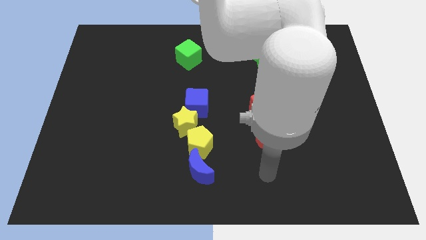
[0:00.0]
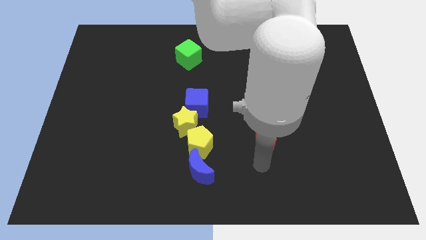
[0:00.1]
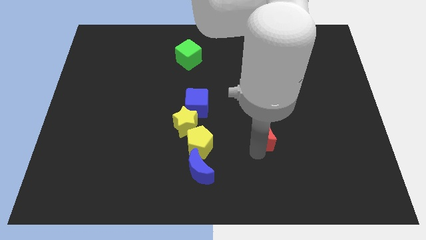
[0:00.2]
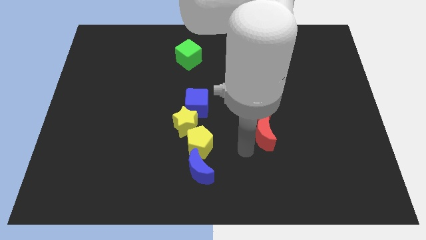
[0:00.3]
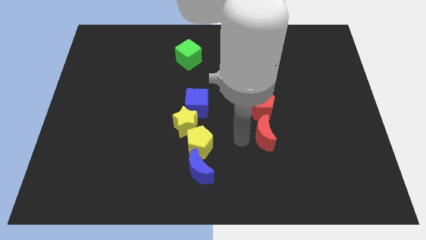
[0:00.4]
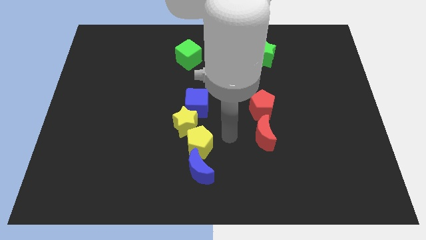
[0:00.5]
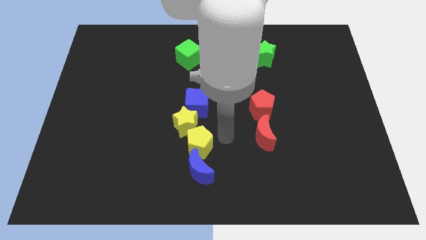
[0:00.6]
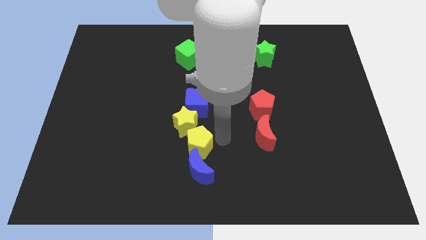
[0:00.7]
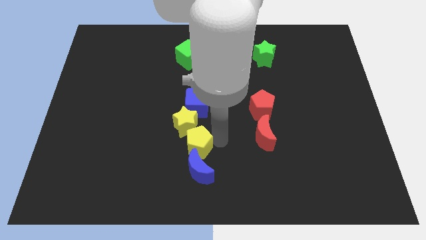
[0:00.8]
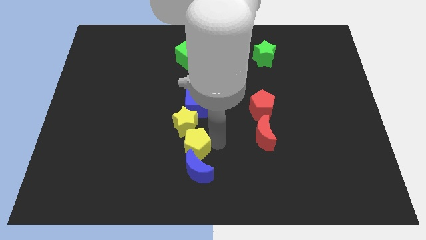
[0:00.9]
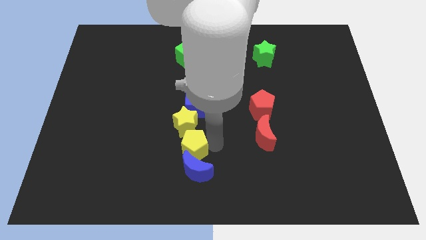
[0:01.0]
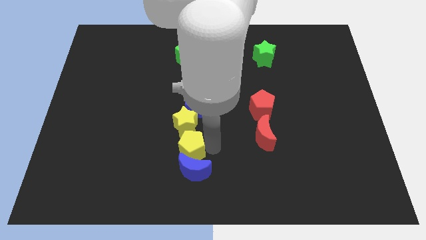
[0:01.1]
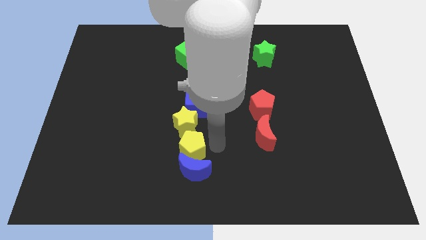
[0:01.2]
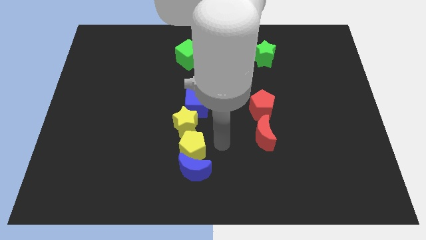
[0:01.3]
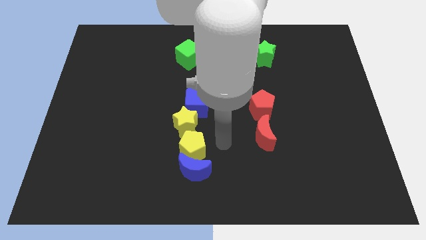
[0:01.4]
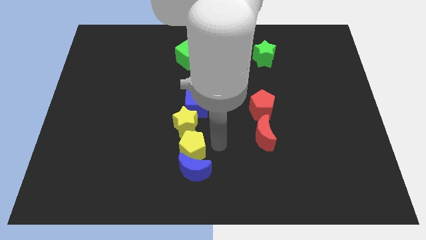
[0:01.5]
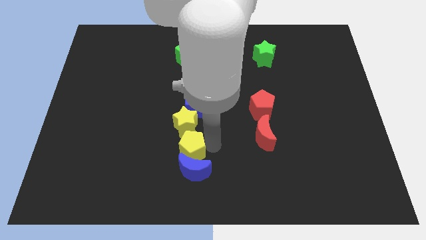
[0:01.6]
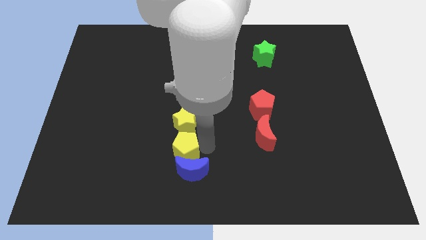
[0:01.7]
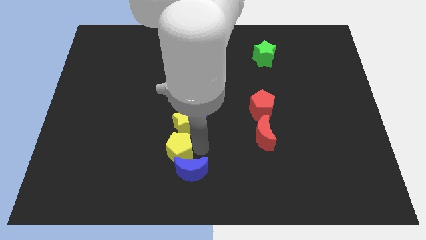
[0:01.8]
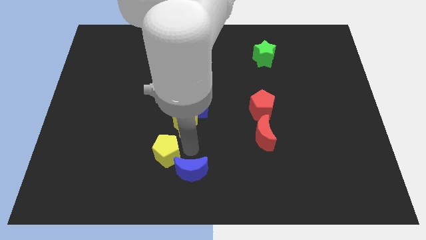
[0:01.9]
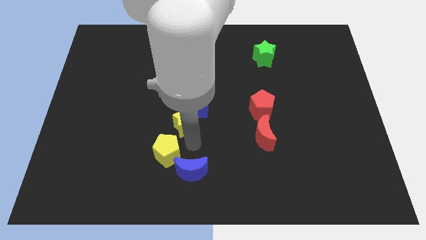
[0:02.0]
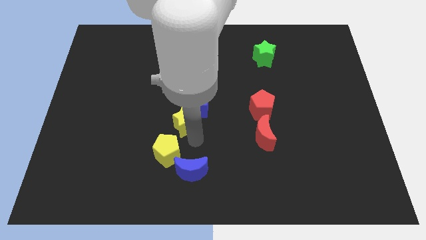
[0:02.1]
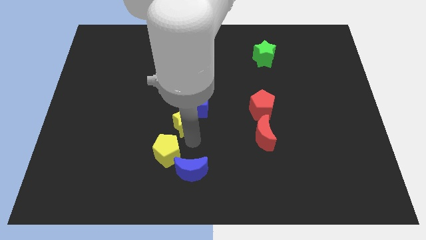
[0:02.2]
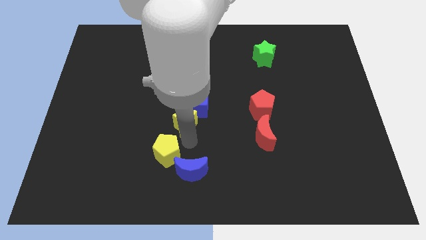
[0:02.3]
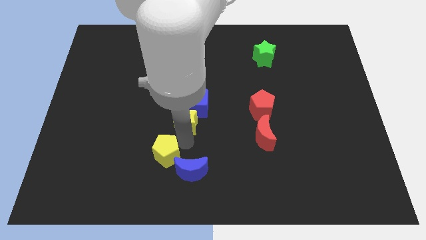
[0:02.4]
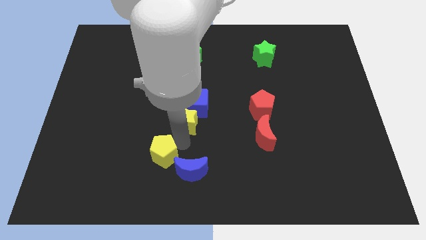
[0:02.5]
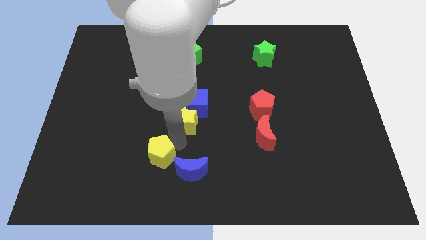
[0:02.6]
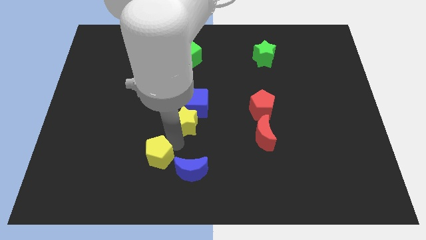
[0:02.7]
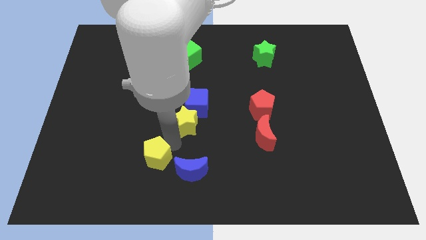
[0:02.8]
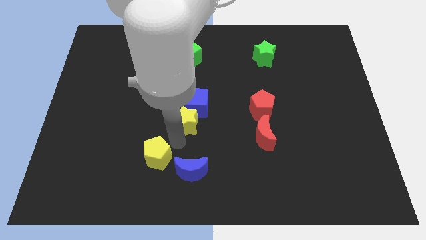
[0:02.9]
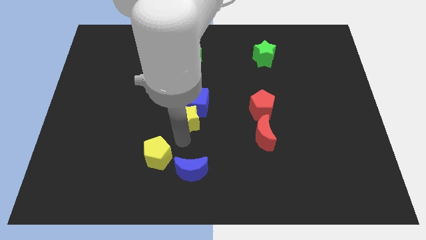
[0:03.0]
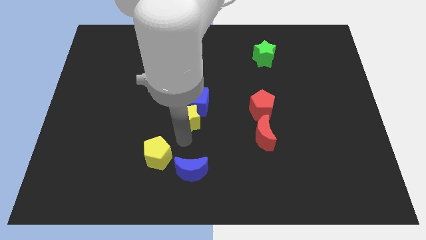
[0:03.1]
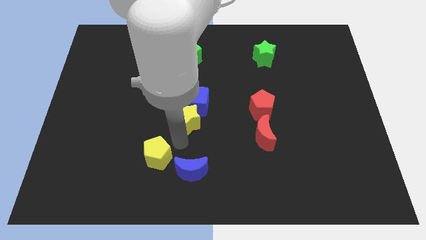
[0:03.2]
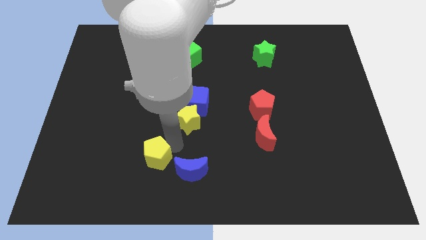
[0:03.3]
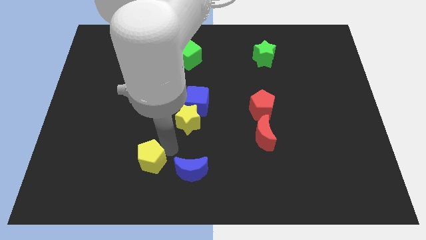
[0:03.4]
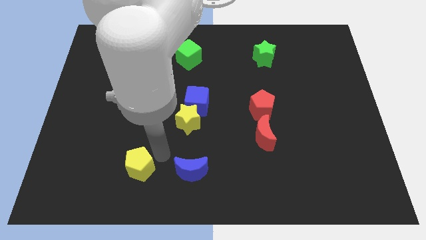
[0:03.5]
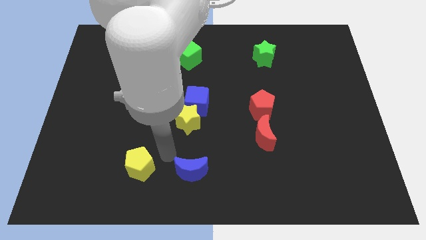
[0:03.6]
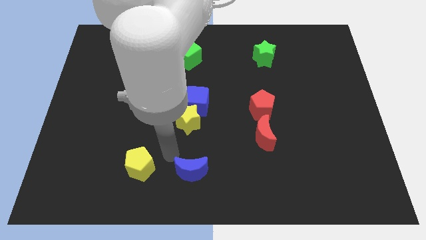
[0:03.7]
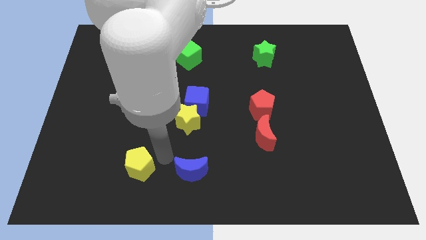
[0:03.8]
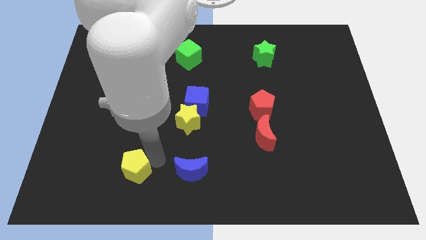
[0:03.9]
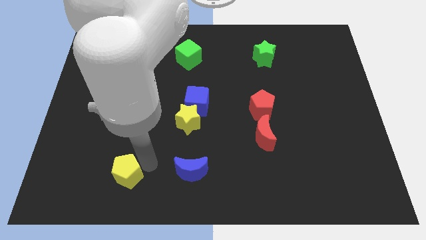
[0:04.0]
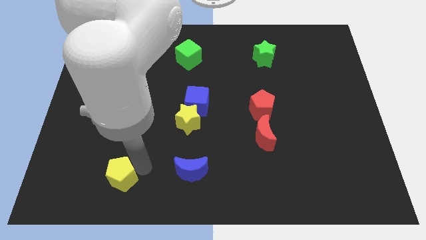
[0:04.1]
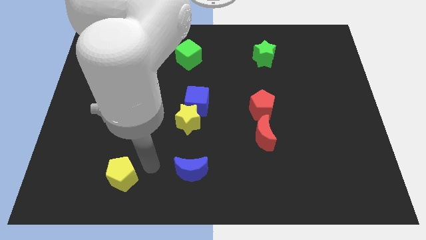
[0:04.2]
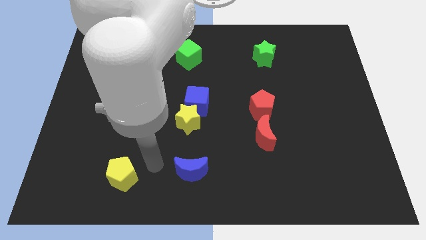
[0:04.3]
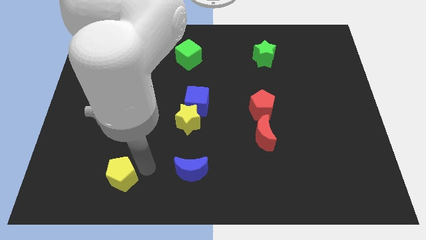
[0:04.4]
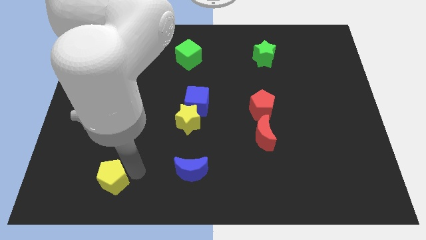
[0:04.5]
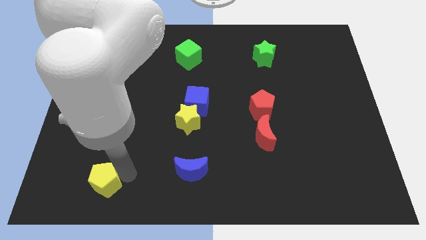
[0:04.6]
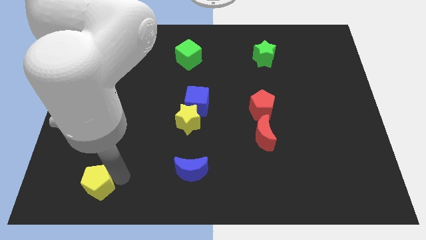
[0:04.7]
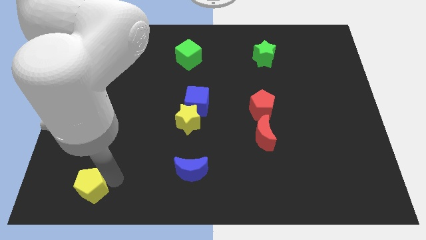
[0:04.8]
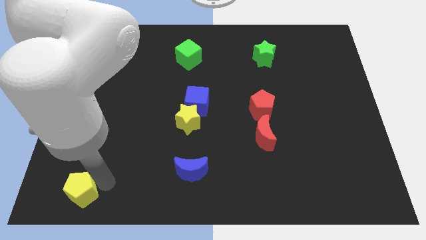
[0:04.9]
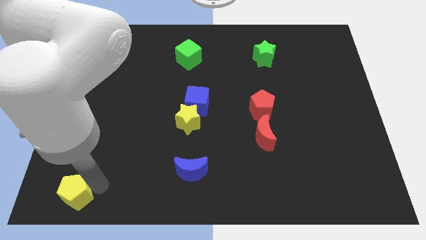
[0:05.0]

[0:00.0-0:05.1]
move the yellow pentagon to the lower left corner

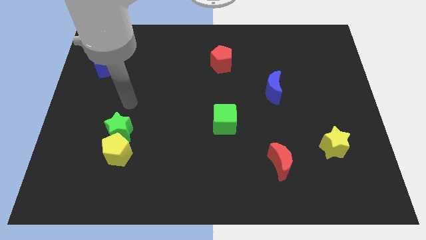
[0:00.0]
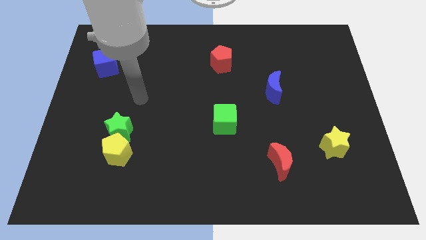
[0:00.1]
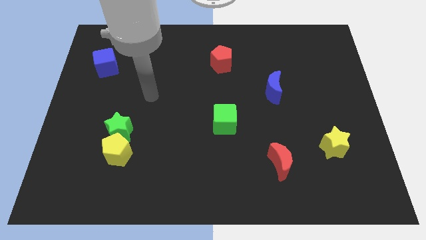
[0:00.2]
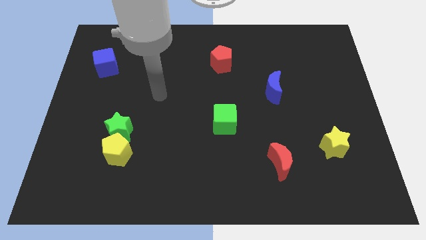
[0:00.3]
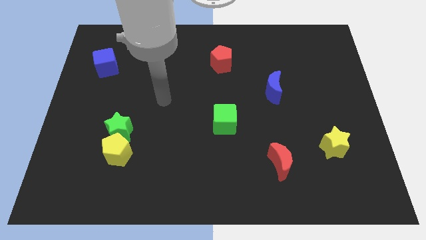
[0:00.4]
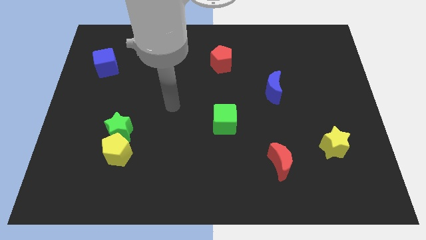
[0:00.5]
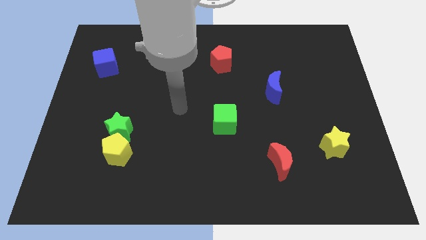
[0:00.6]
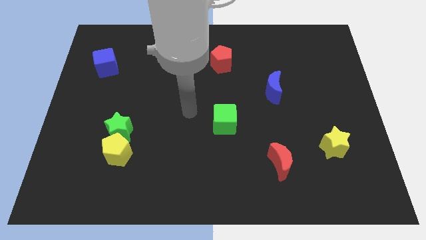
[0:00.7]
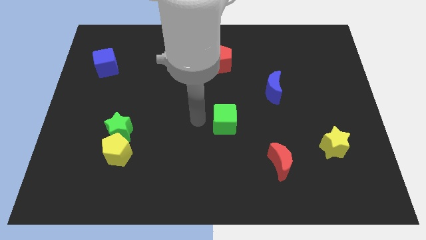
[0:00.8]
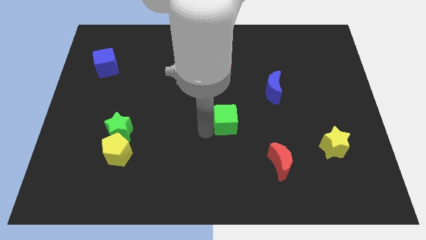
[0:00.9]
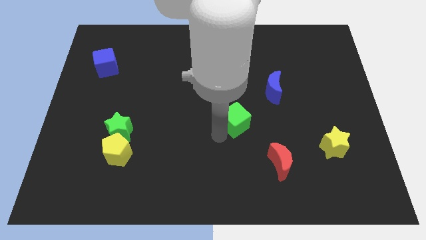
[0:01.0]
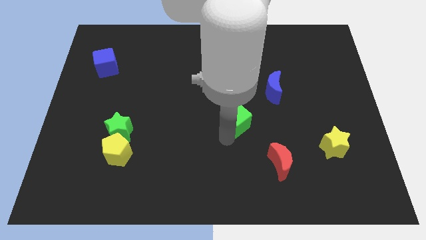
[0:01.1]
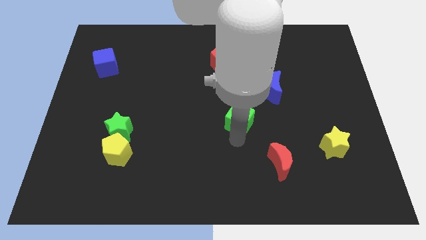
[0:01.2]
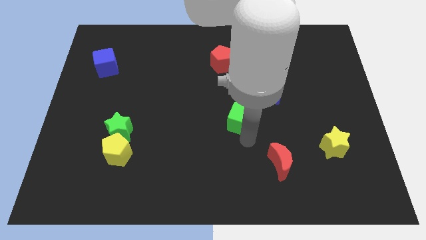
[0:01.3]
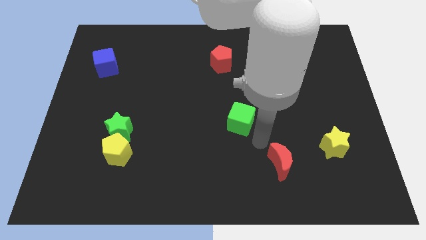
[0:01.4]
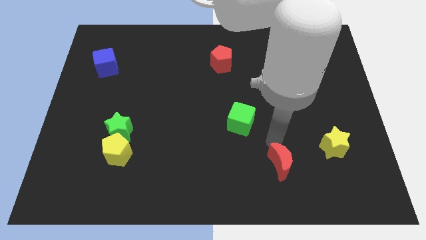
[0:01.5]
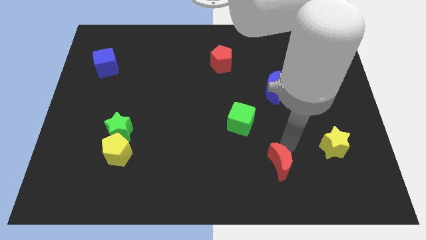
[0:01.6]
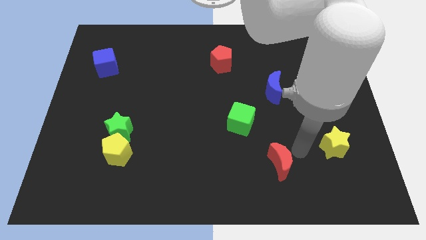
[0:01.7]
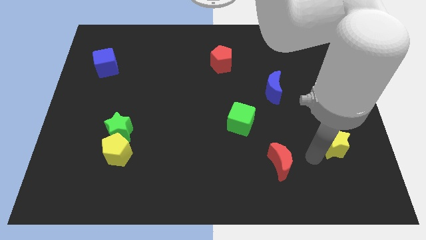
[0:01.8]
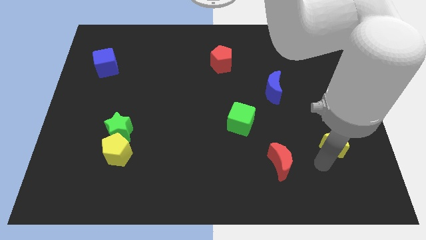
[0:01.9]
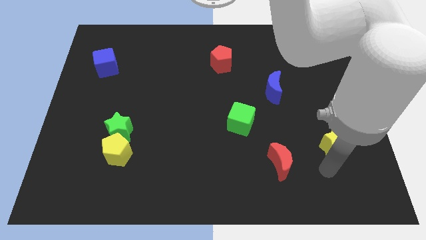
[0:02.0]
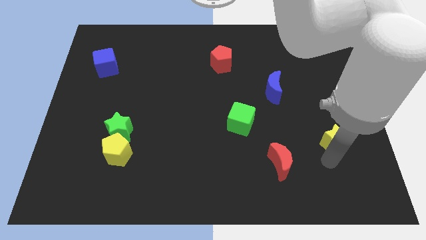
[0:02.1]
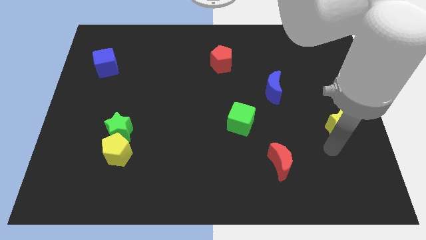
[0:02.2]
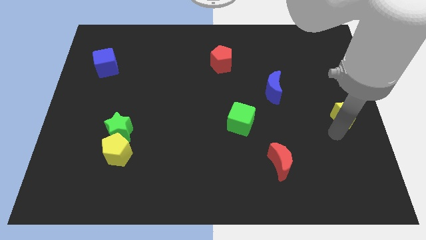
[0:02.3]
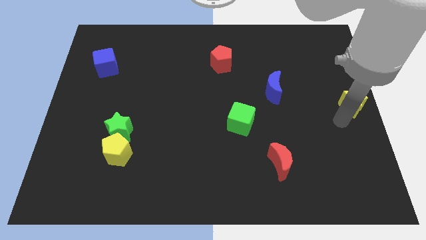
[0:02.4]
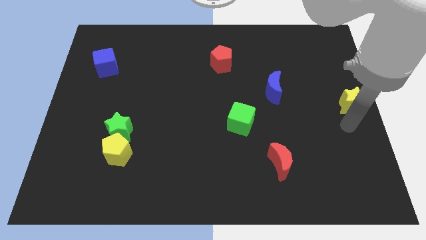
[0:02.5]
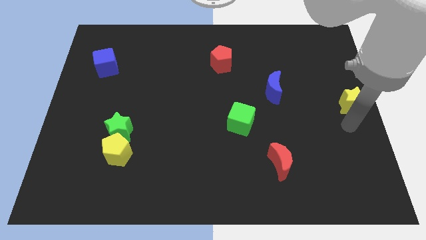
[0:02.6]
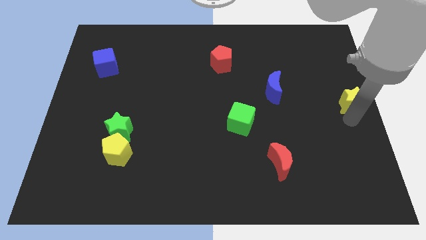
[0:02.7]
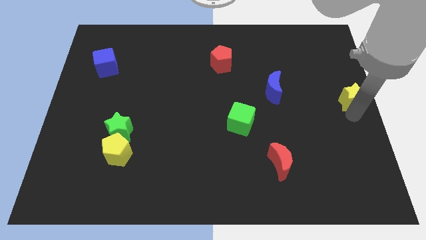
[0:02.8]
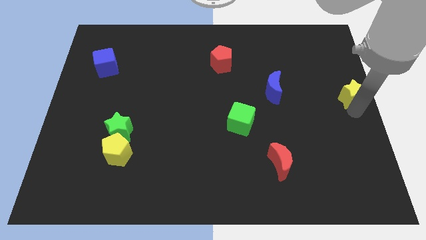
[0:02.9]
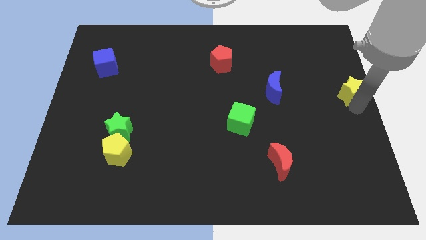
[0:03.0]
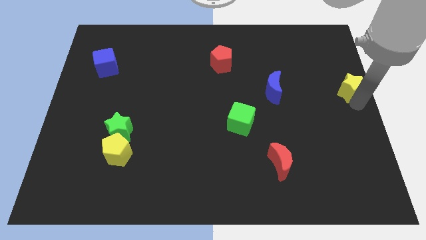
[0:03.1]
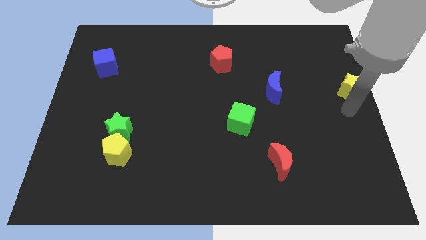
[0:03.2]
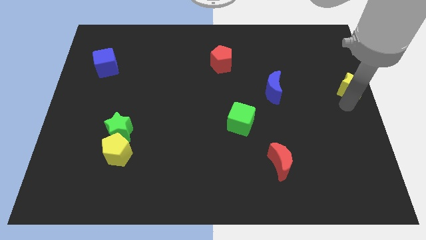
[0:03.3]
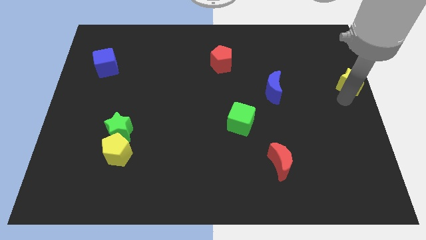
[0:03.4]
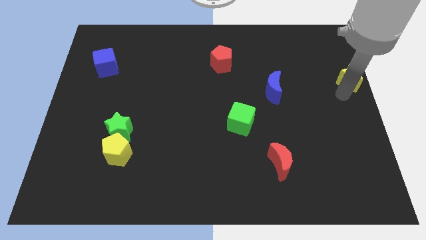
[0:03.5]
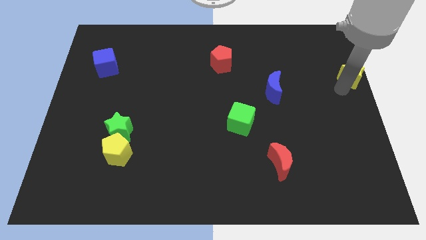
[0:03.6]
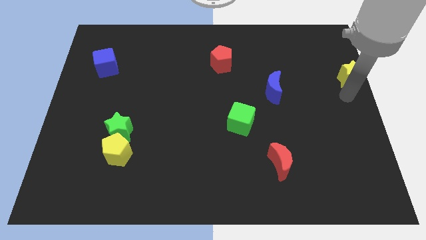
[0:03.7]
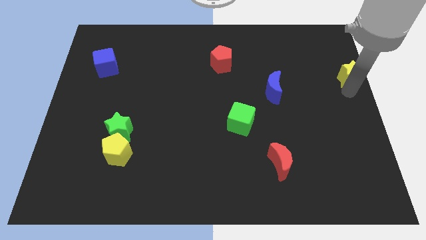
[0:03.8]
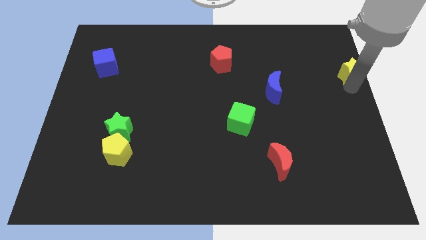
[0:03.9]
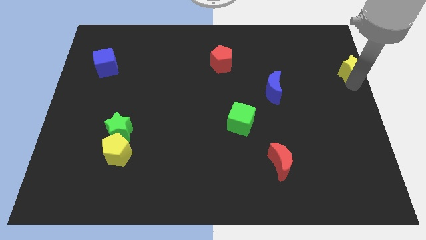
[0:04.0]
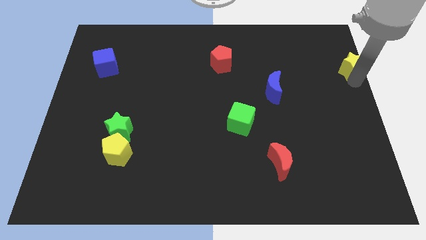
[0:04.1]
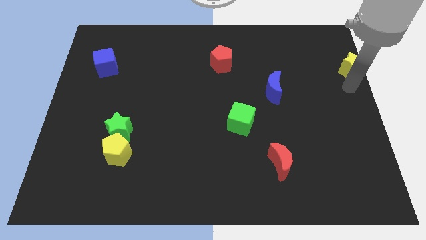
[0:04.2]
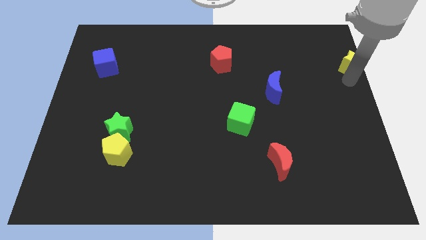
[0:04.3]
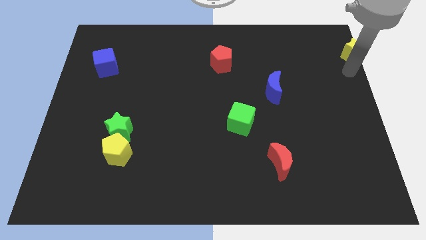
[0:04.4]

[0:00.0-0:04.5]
put the yellow star to the top right
